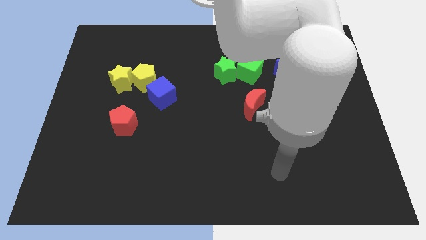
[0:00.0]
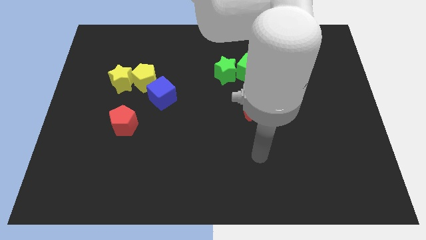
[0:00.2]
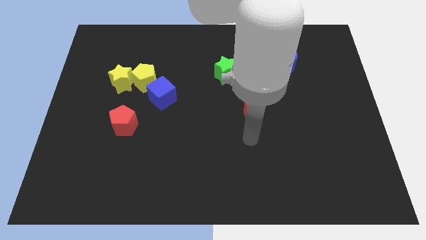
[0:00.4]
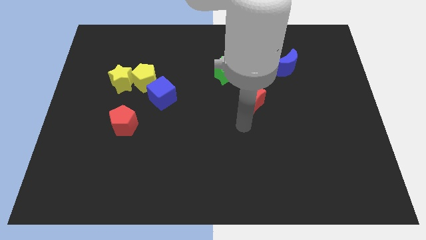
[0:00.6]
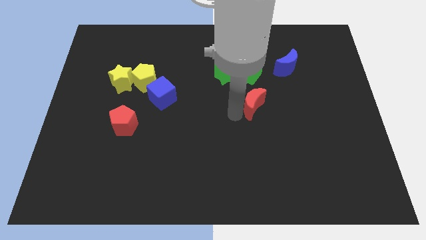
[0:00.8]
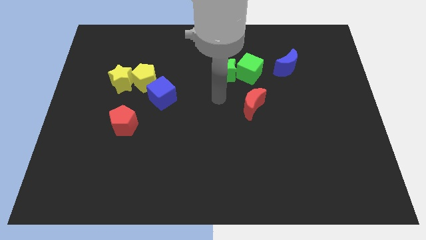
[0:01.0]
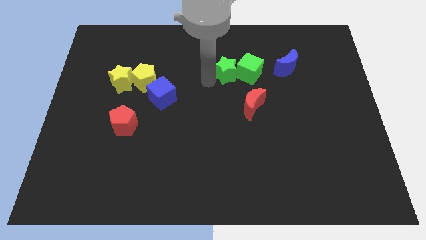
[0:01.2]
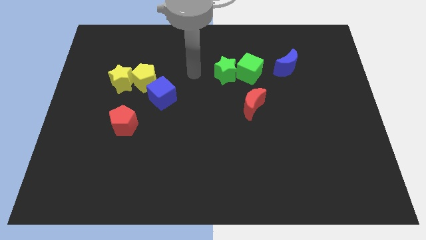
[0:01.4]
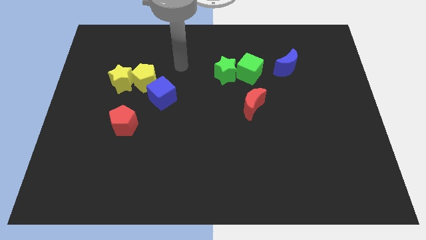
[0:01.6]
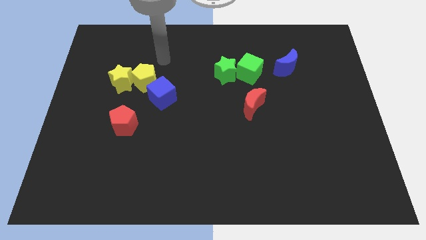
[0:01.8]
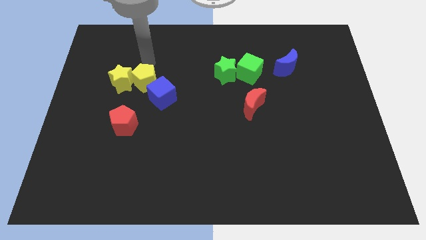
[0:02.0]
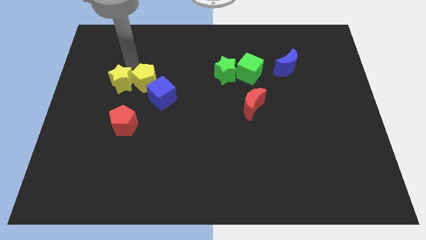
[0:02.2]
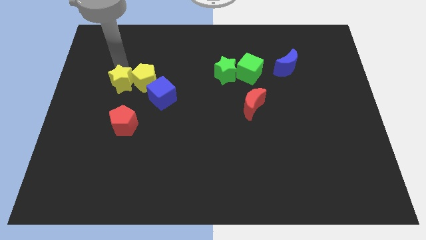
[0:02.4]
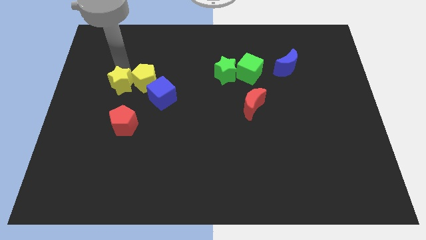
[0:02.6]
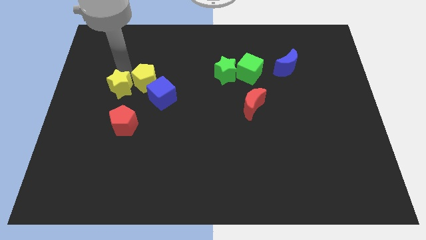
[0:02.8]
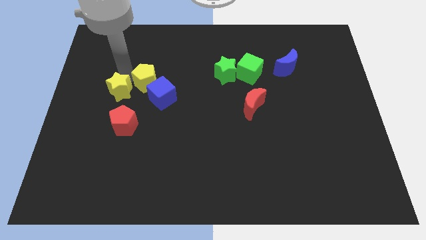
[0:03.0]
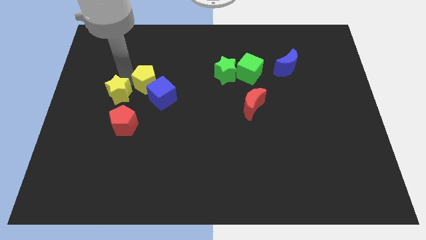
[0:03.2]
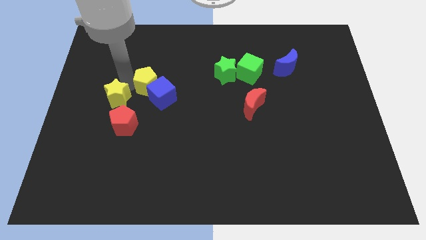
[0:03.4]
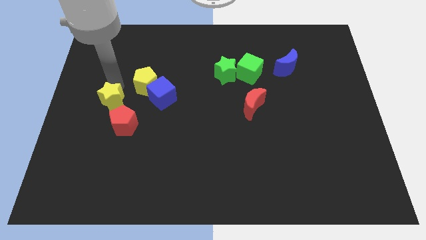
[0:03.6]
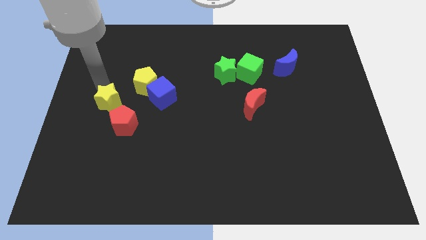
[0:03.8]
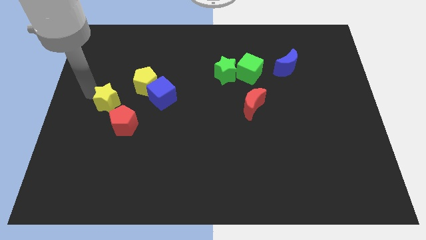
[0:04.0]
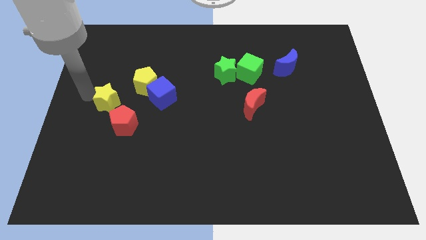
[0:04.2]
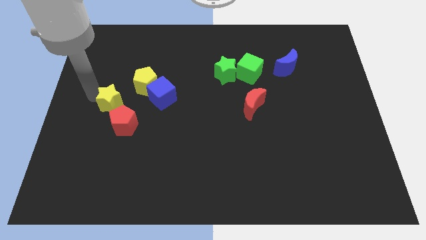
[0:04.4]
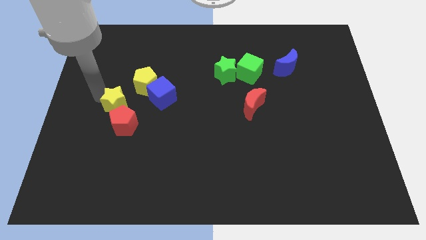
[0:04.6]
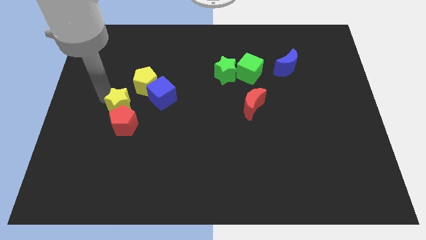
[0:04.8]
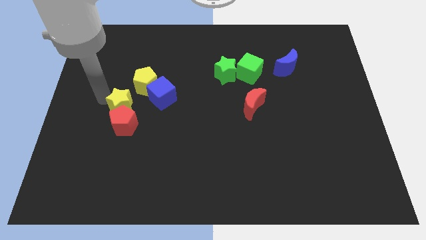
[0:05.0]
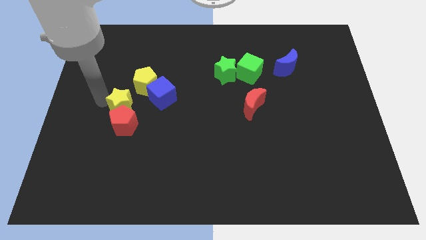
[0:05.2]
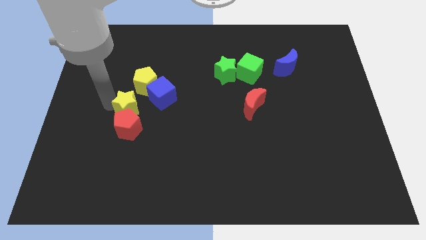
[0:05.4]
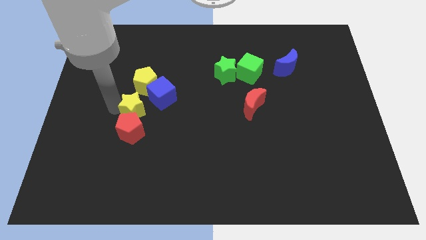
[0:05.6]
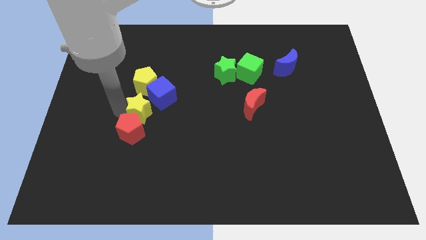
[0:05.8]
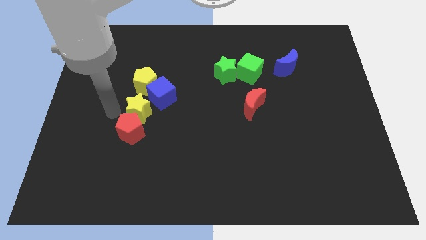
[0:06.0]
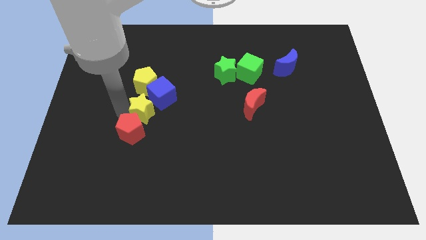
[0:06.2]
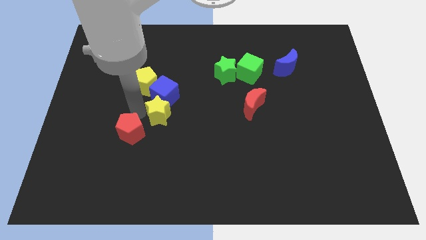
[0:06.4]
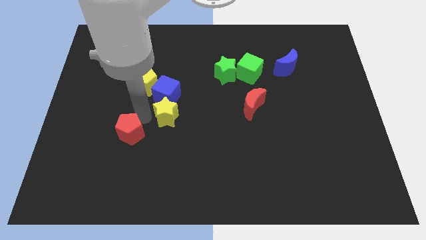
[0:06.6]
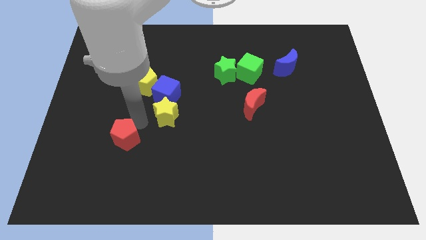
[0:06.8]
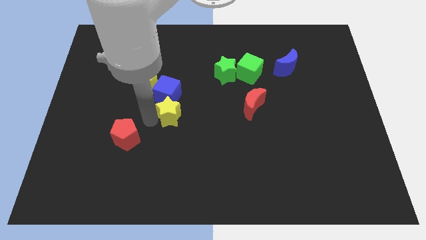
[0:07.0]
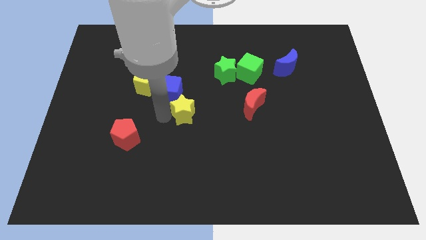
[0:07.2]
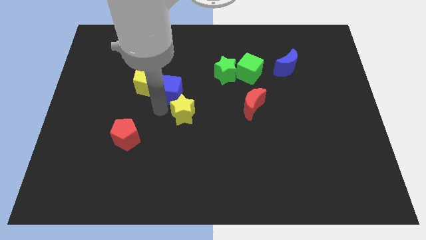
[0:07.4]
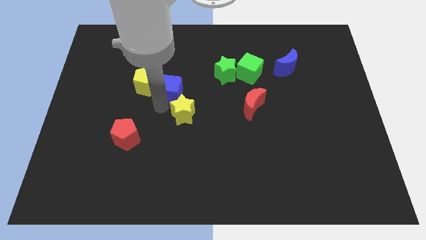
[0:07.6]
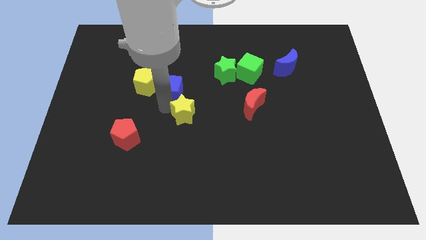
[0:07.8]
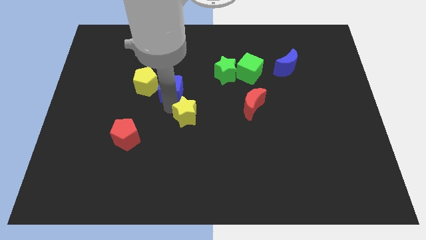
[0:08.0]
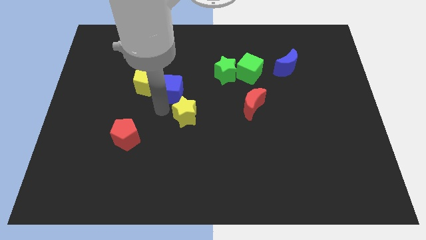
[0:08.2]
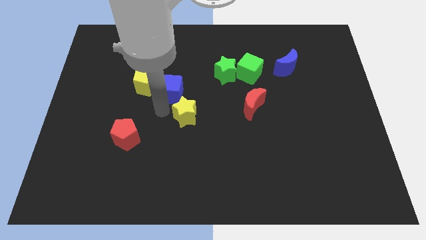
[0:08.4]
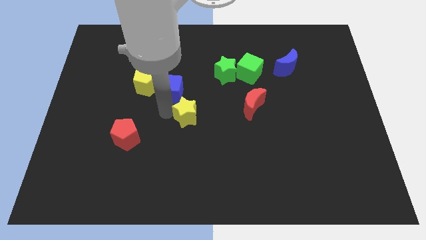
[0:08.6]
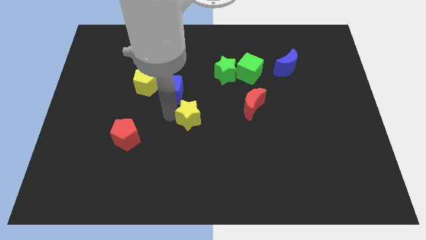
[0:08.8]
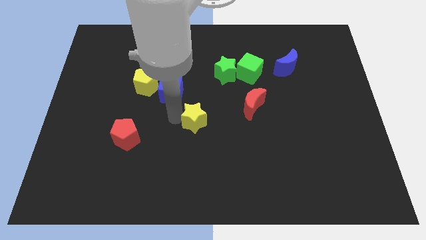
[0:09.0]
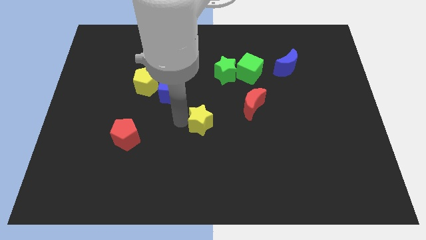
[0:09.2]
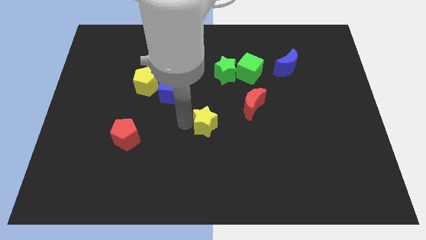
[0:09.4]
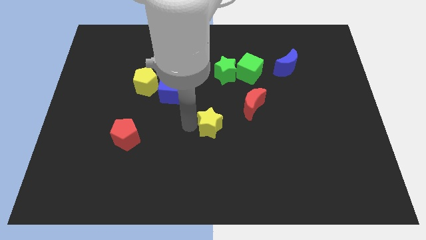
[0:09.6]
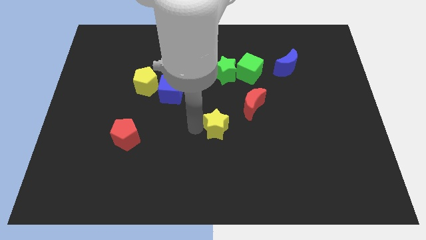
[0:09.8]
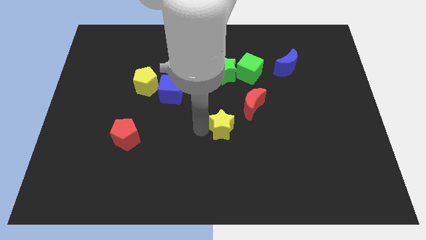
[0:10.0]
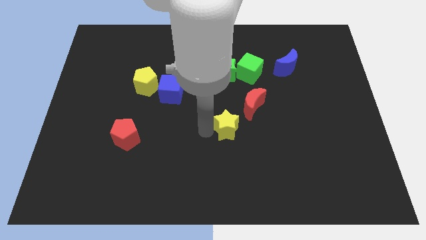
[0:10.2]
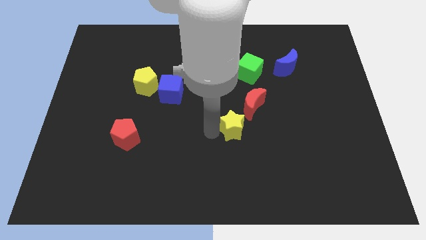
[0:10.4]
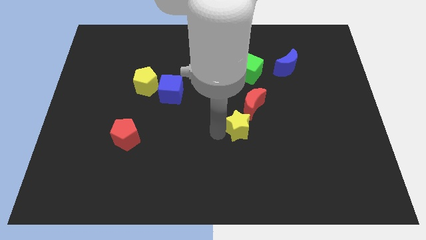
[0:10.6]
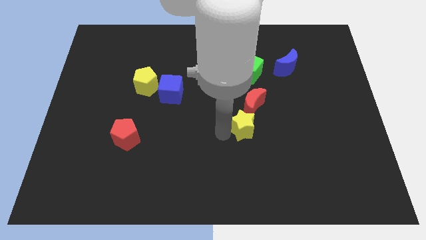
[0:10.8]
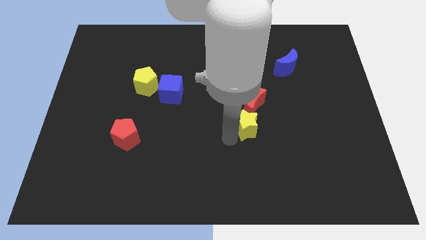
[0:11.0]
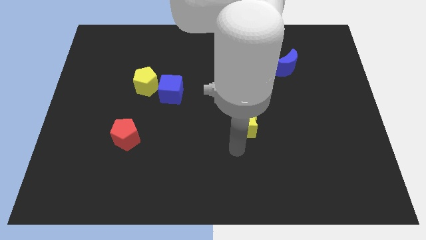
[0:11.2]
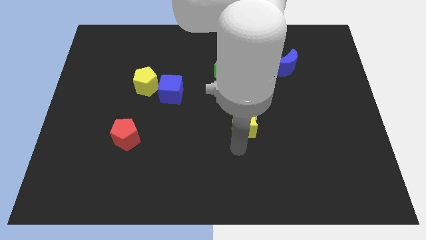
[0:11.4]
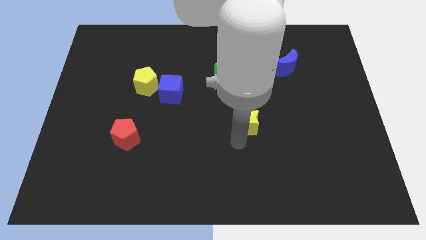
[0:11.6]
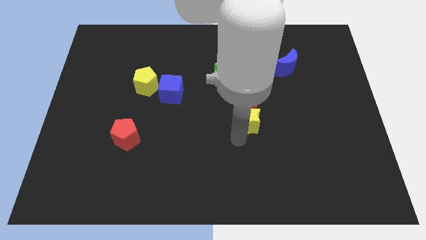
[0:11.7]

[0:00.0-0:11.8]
put the yellow star to the bottom of the green cube

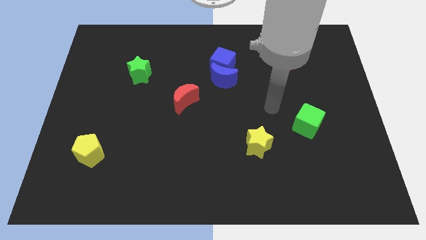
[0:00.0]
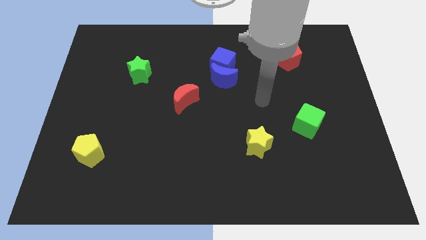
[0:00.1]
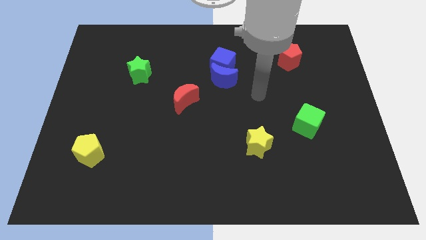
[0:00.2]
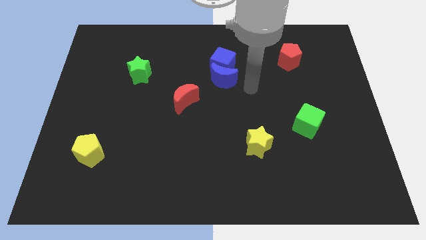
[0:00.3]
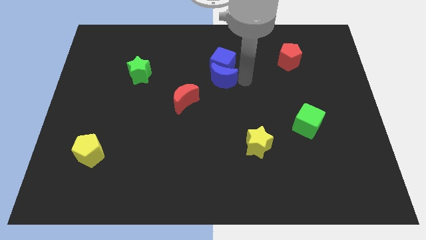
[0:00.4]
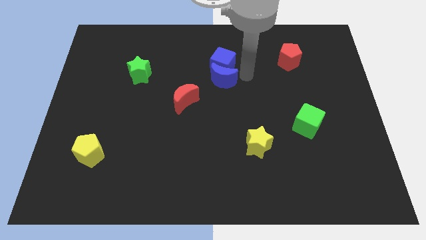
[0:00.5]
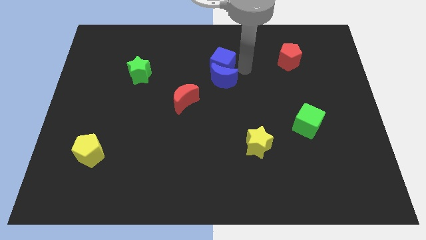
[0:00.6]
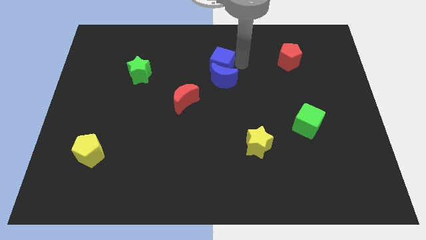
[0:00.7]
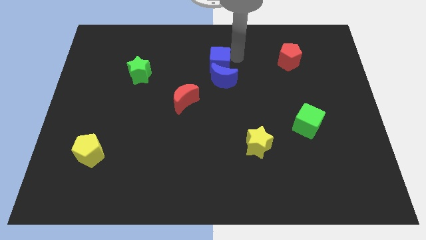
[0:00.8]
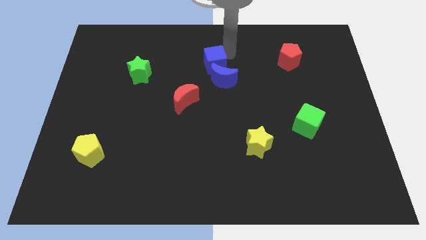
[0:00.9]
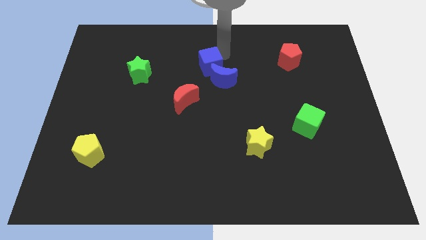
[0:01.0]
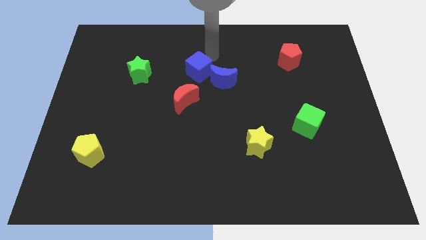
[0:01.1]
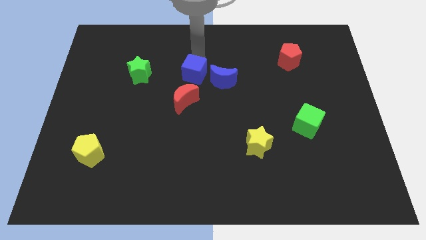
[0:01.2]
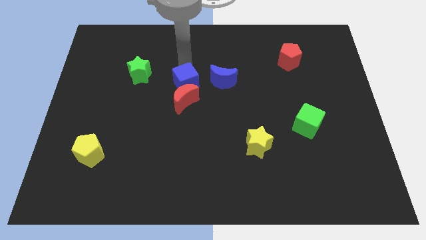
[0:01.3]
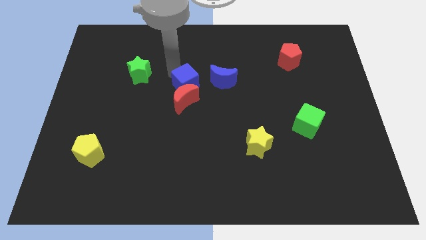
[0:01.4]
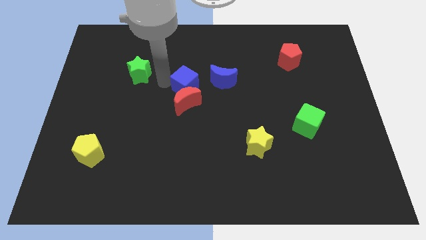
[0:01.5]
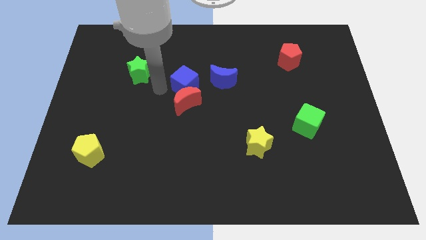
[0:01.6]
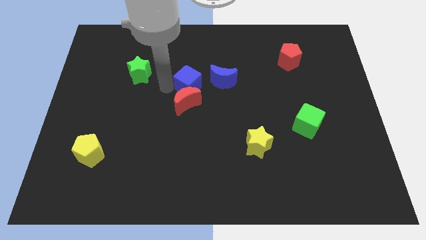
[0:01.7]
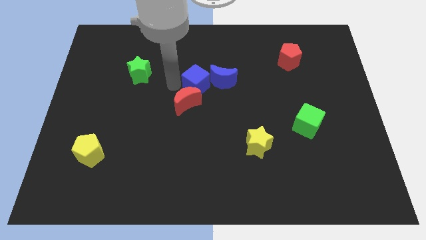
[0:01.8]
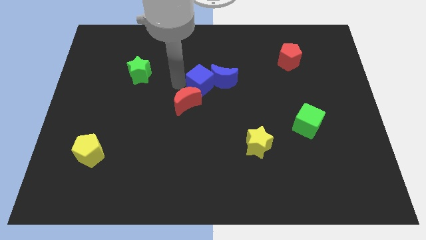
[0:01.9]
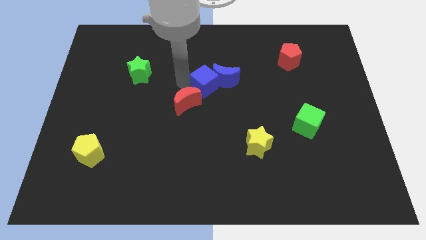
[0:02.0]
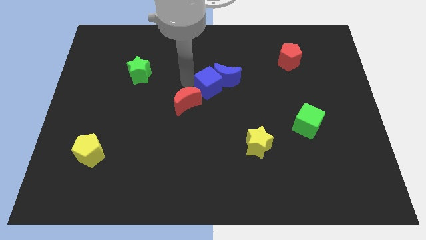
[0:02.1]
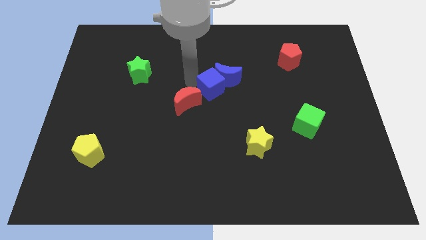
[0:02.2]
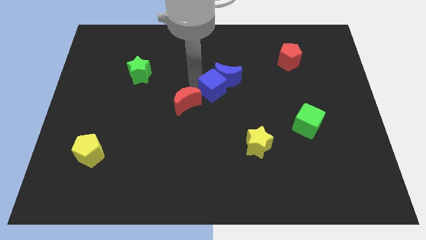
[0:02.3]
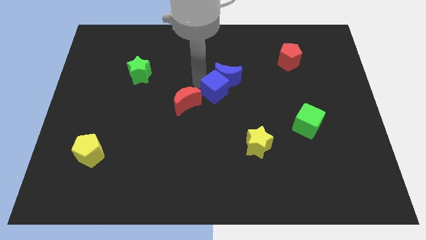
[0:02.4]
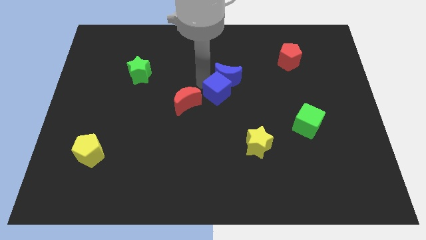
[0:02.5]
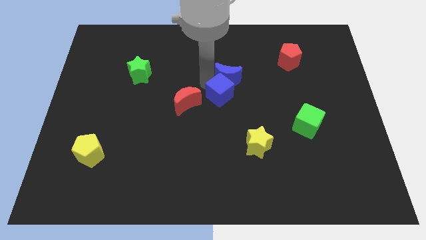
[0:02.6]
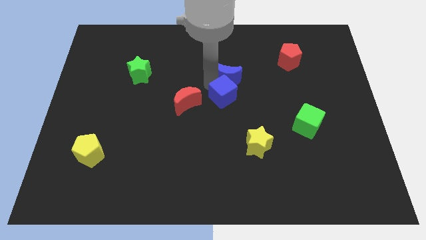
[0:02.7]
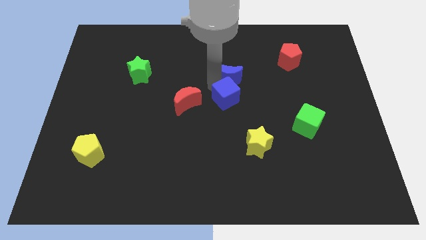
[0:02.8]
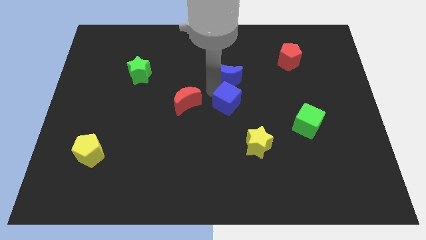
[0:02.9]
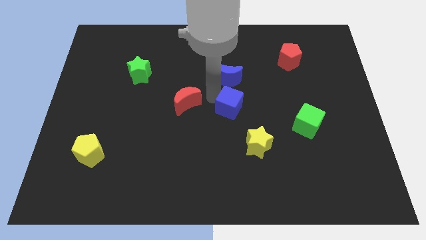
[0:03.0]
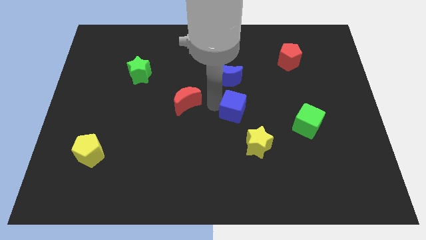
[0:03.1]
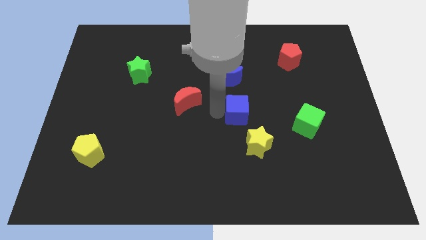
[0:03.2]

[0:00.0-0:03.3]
slide the blue cube to the top side of the yellow star
